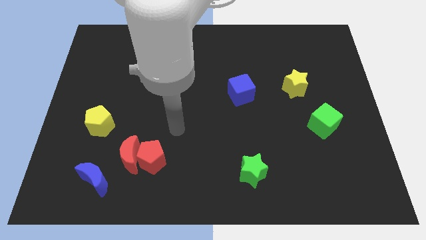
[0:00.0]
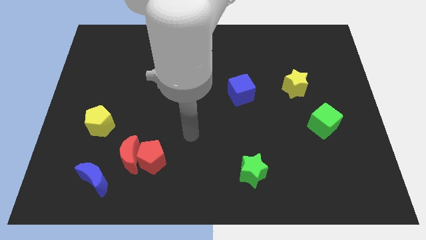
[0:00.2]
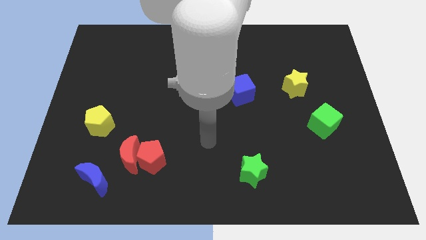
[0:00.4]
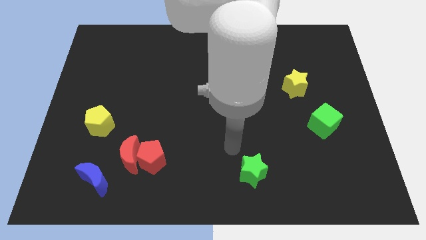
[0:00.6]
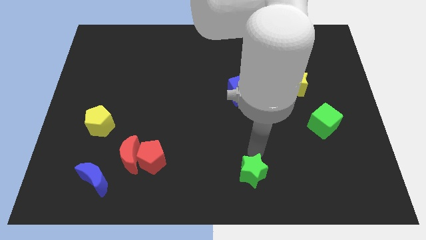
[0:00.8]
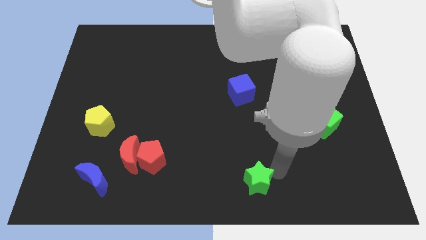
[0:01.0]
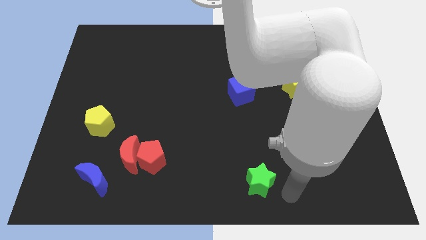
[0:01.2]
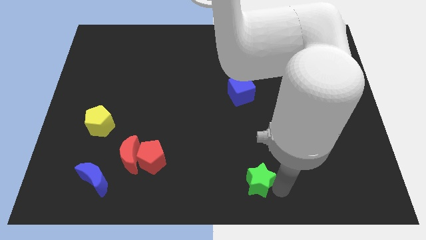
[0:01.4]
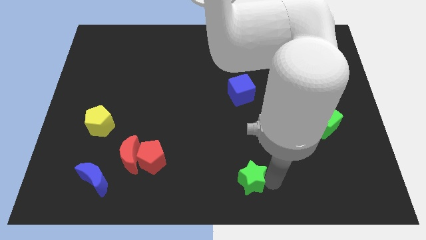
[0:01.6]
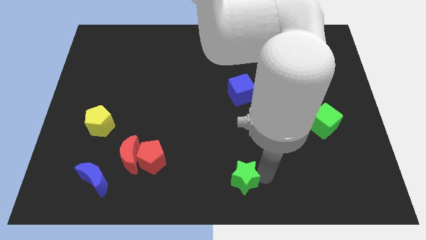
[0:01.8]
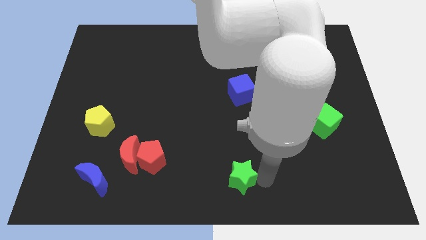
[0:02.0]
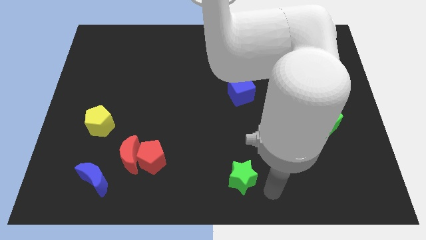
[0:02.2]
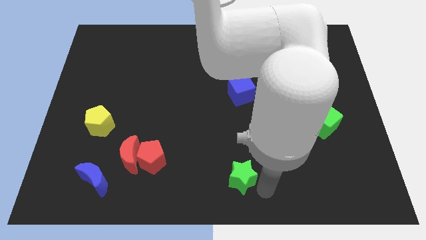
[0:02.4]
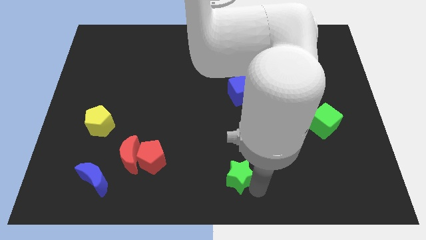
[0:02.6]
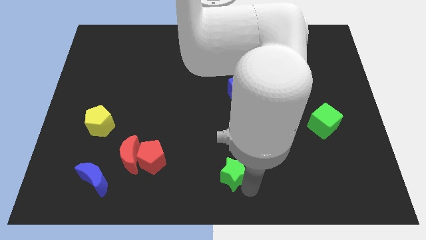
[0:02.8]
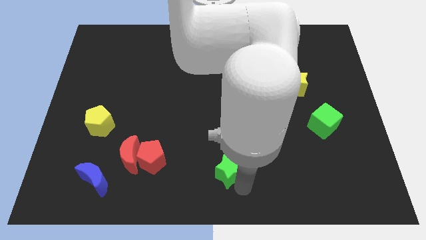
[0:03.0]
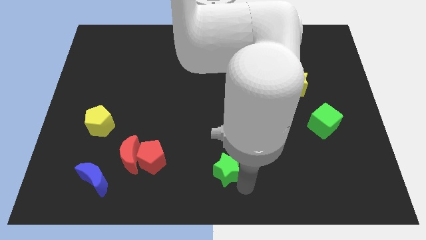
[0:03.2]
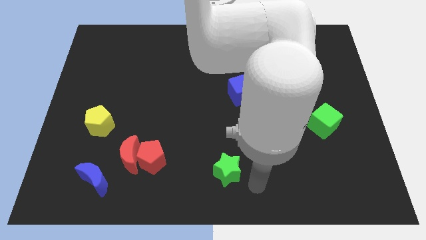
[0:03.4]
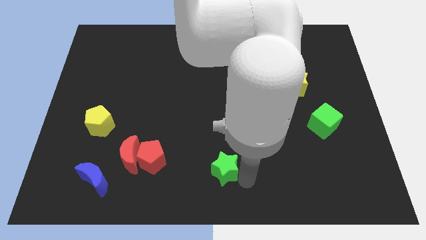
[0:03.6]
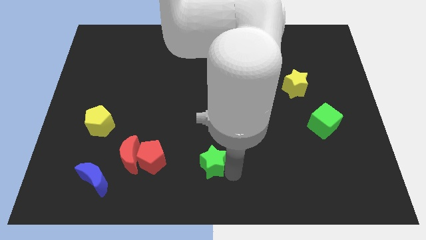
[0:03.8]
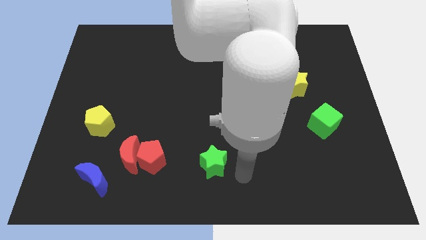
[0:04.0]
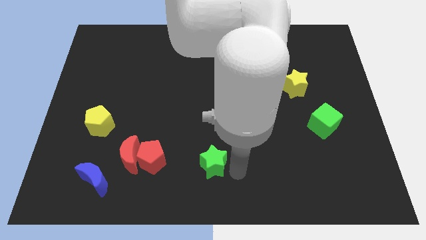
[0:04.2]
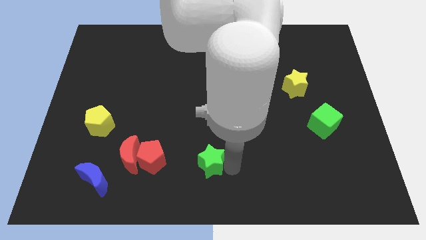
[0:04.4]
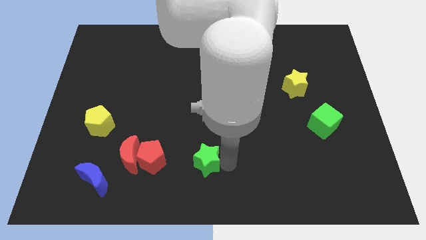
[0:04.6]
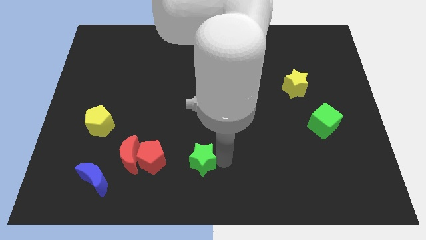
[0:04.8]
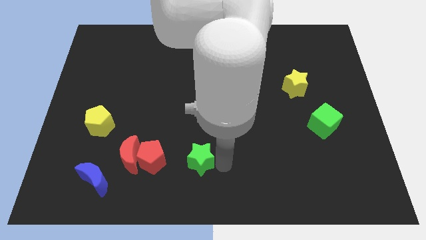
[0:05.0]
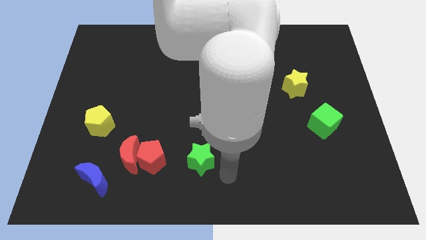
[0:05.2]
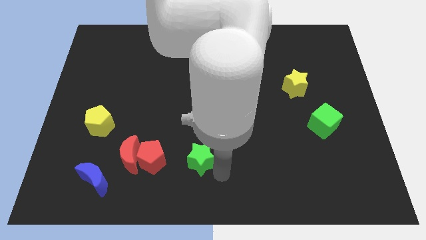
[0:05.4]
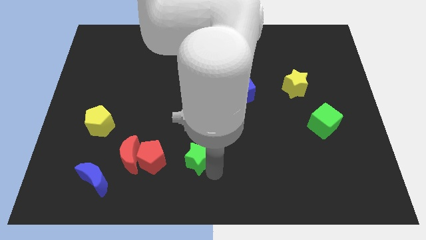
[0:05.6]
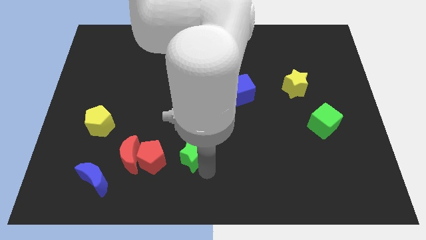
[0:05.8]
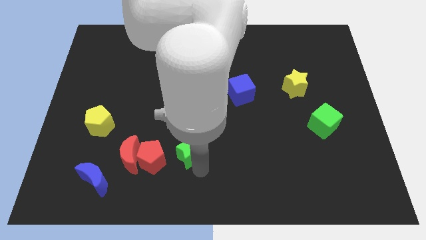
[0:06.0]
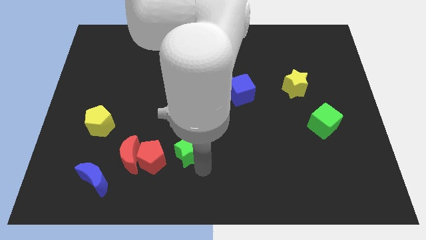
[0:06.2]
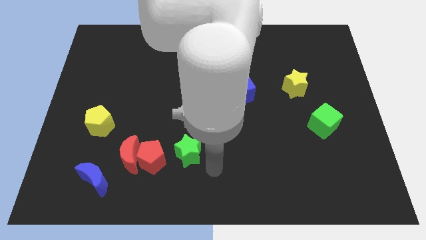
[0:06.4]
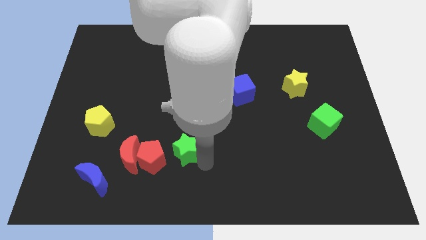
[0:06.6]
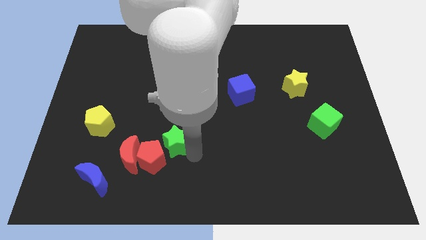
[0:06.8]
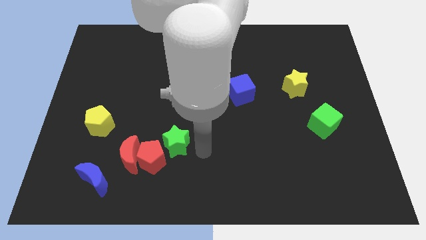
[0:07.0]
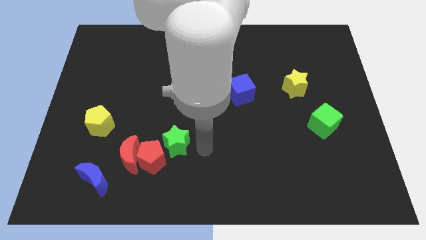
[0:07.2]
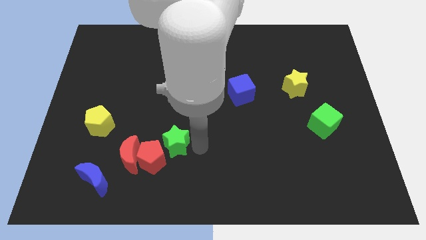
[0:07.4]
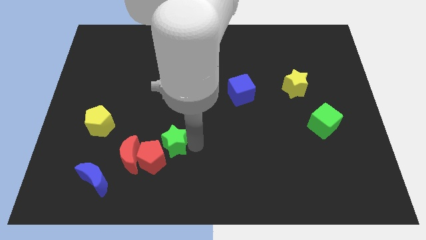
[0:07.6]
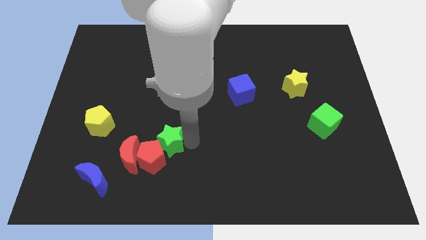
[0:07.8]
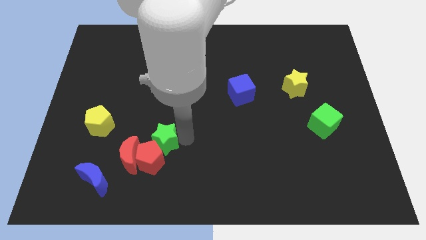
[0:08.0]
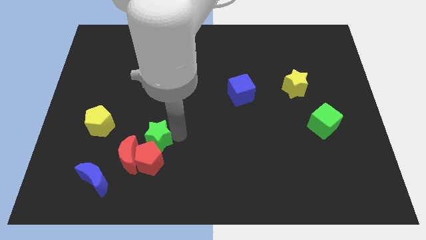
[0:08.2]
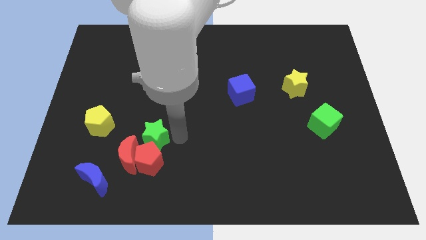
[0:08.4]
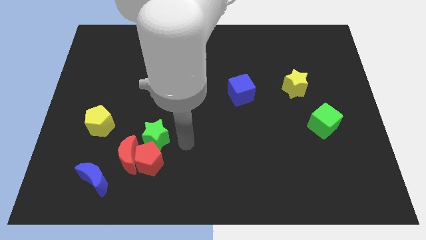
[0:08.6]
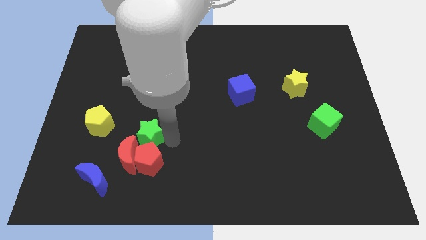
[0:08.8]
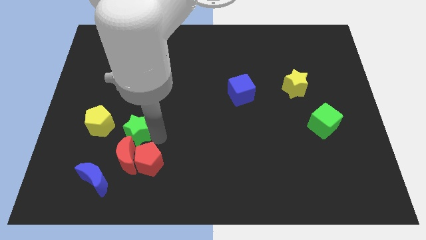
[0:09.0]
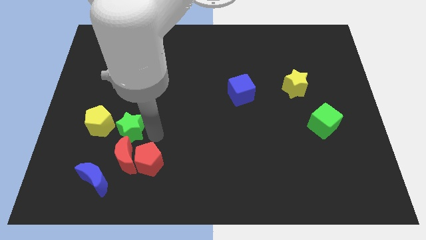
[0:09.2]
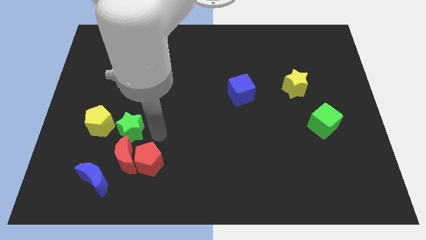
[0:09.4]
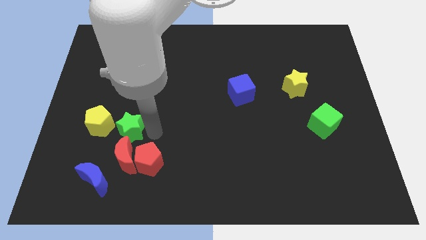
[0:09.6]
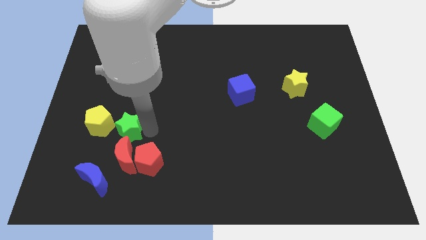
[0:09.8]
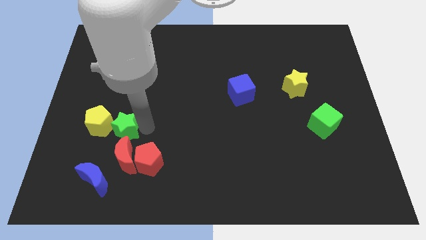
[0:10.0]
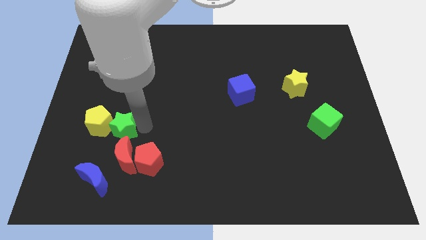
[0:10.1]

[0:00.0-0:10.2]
move the green star close to the yellow pentagon
